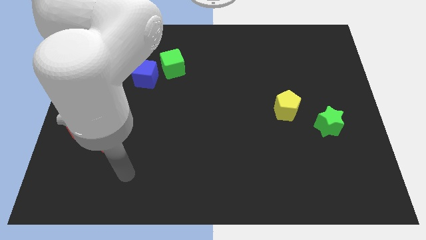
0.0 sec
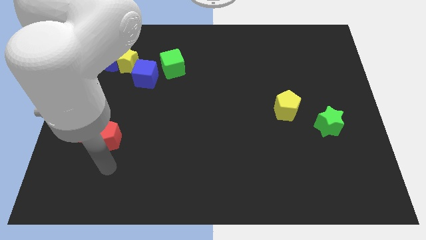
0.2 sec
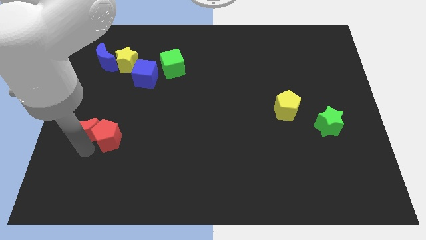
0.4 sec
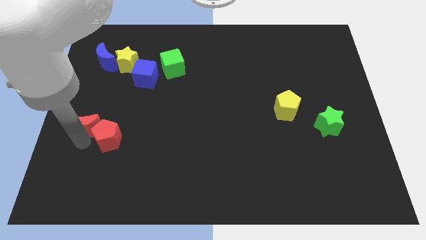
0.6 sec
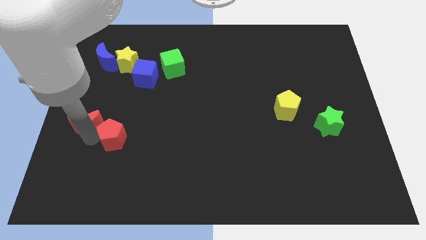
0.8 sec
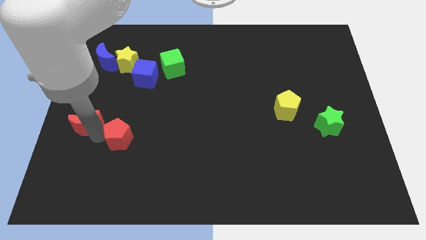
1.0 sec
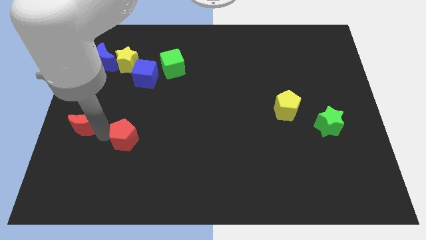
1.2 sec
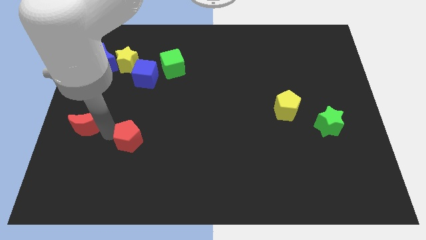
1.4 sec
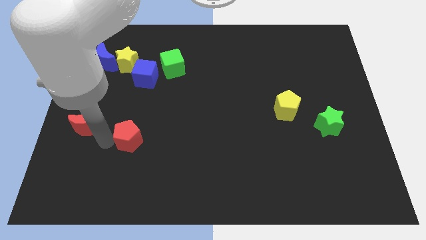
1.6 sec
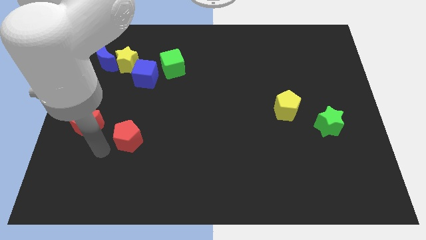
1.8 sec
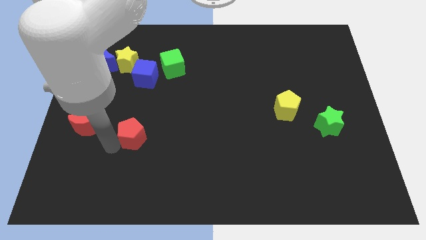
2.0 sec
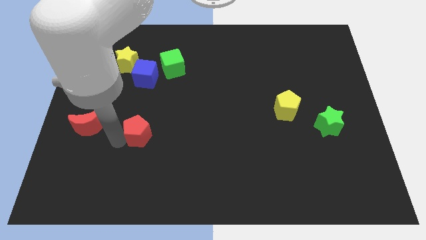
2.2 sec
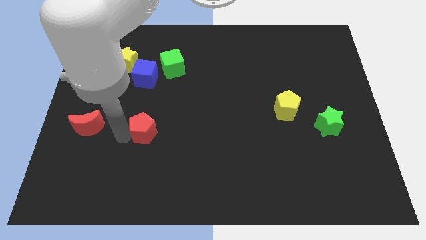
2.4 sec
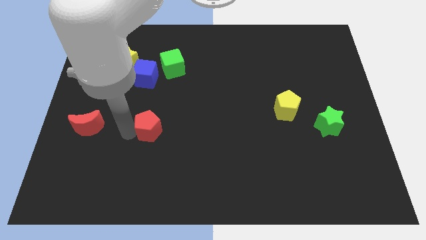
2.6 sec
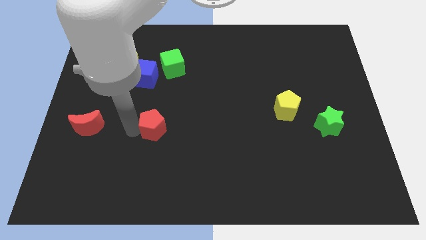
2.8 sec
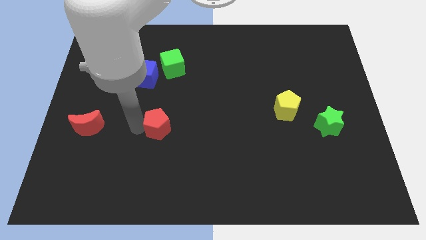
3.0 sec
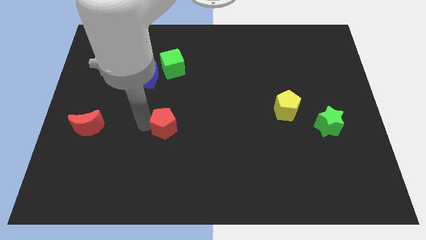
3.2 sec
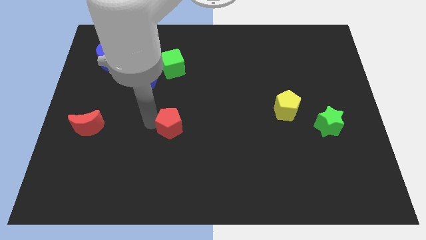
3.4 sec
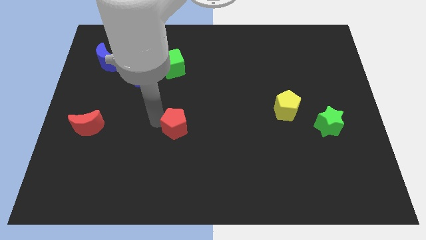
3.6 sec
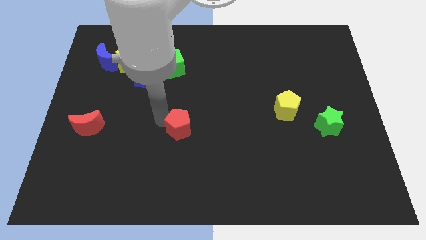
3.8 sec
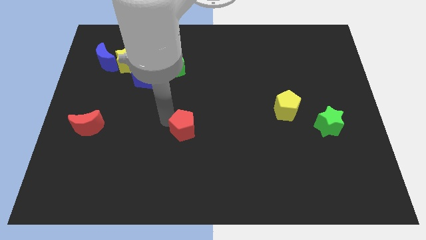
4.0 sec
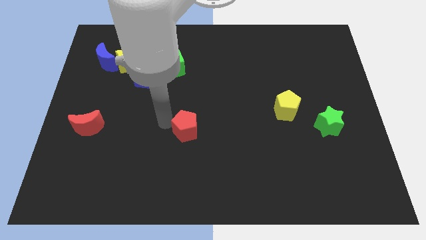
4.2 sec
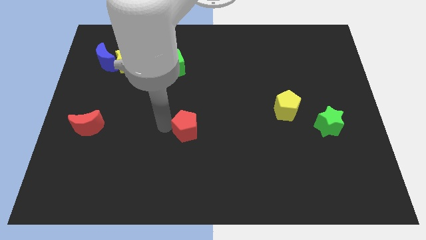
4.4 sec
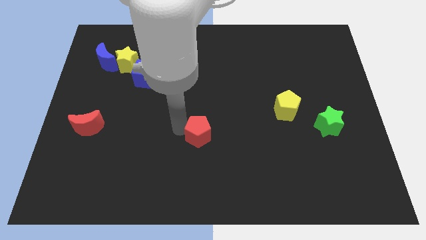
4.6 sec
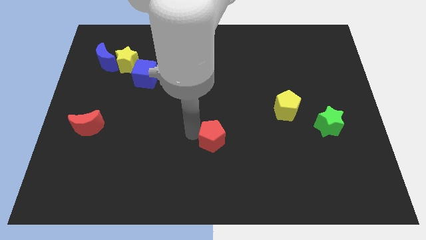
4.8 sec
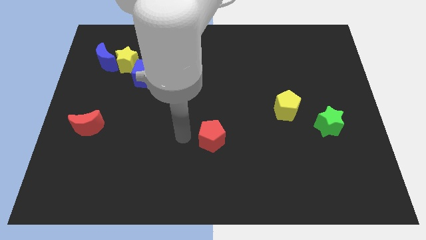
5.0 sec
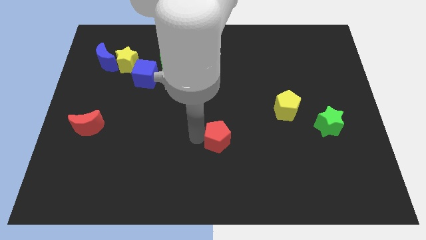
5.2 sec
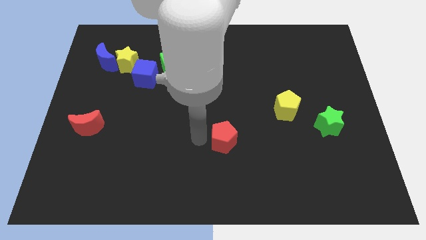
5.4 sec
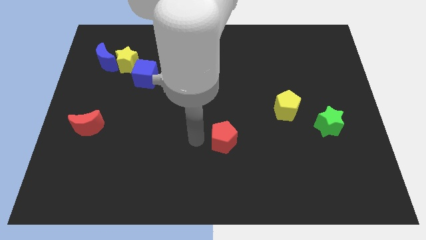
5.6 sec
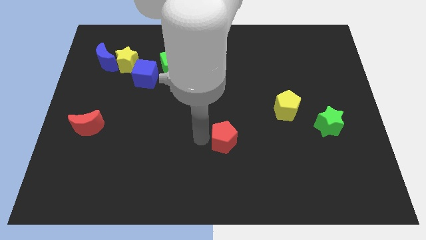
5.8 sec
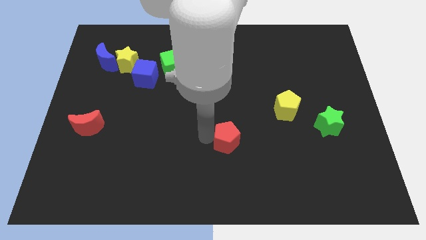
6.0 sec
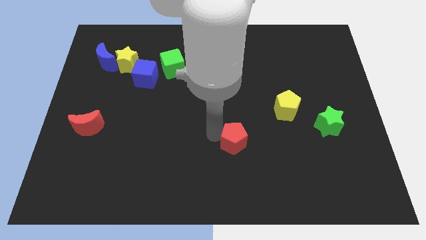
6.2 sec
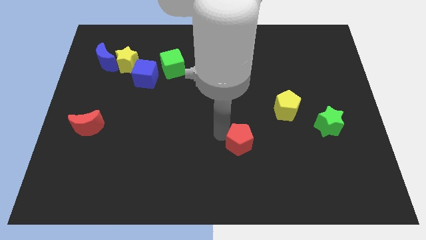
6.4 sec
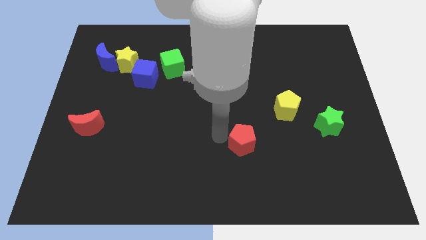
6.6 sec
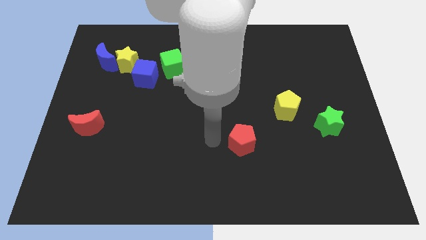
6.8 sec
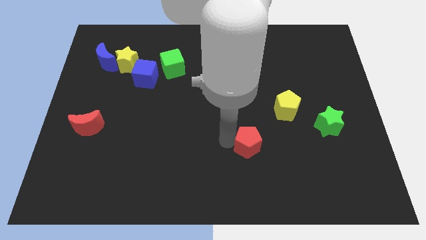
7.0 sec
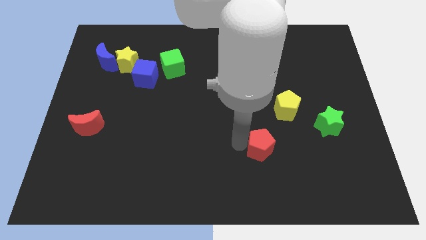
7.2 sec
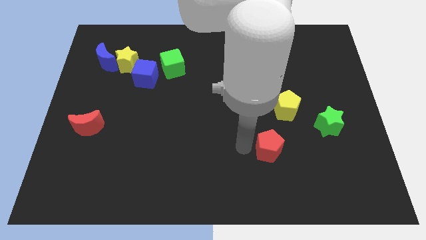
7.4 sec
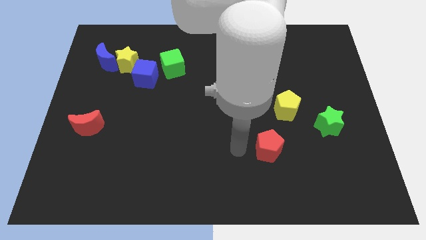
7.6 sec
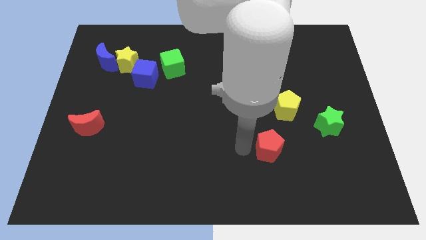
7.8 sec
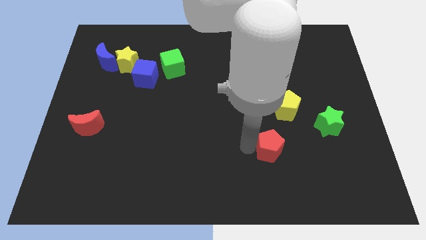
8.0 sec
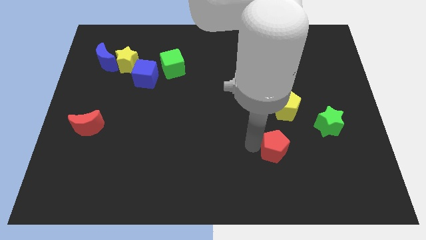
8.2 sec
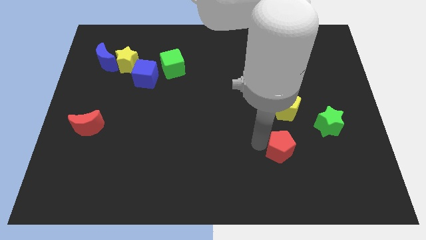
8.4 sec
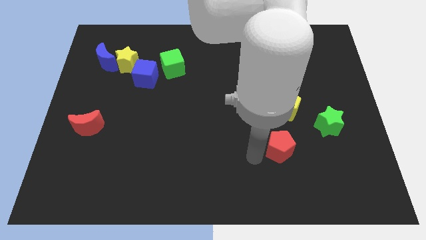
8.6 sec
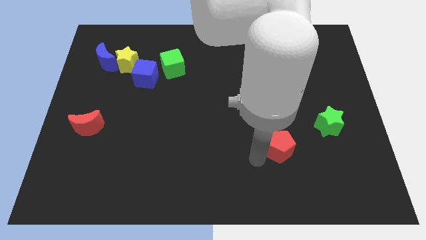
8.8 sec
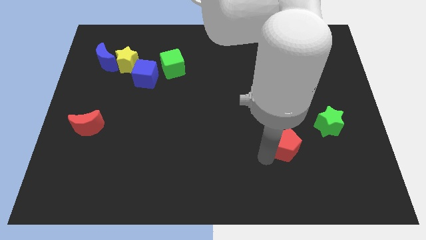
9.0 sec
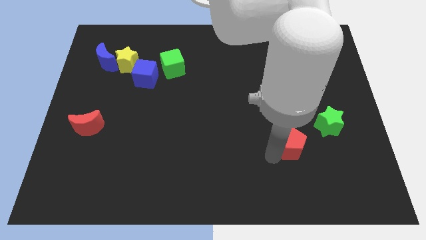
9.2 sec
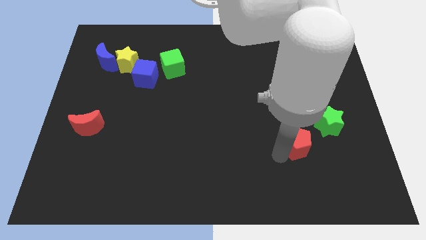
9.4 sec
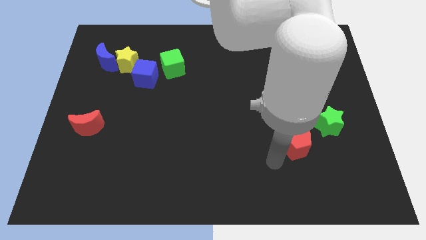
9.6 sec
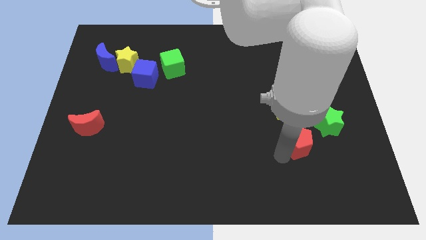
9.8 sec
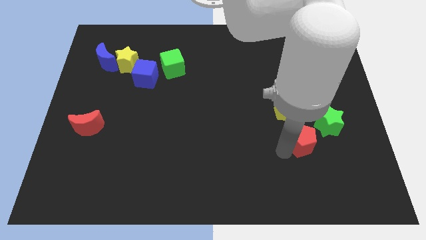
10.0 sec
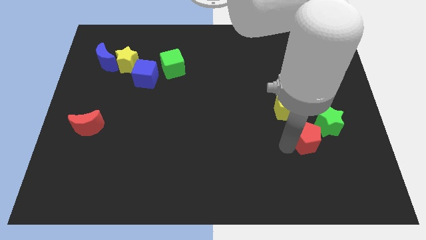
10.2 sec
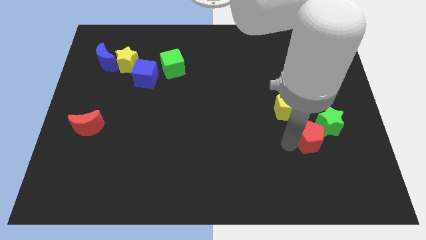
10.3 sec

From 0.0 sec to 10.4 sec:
push the red pentagon to the green star

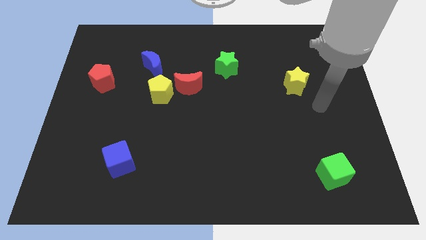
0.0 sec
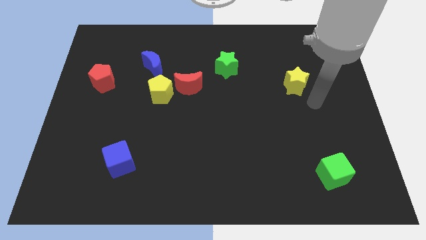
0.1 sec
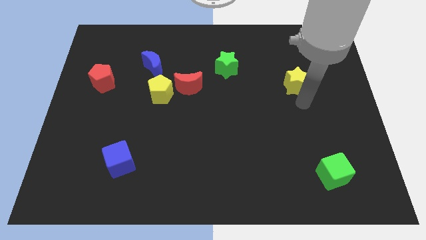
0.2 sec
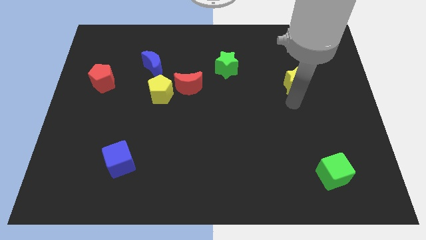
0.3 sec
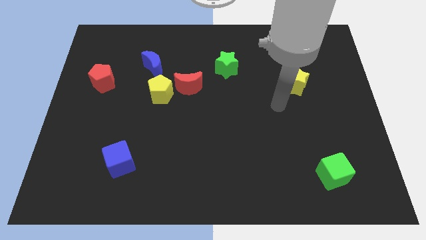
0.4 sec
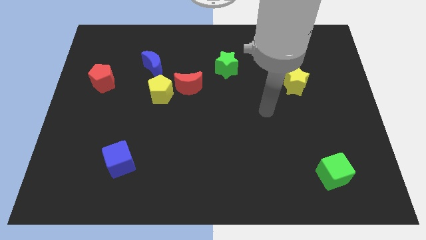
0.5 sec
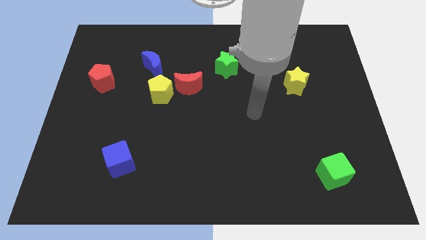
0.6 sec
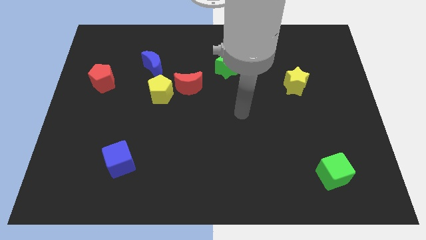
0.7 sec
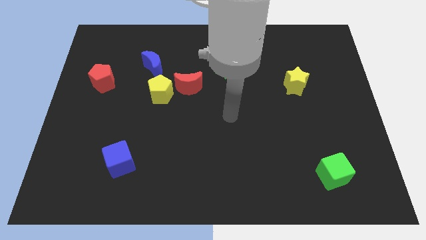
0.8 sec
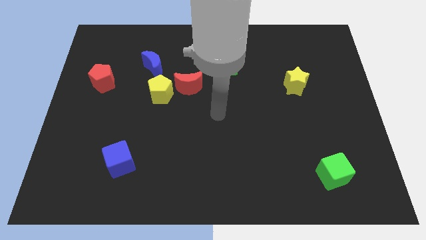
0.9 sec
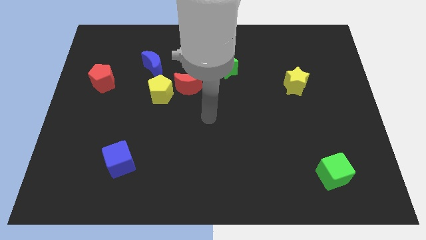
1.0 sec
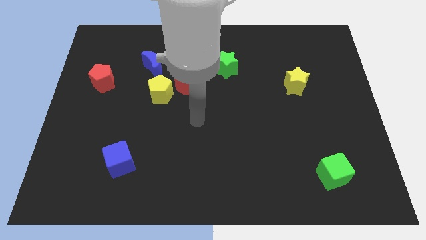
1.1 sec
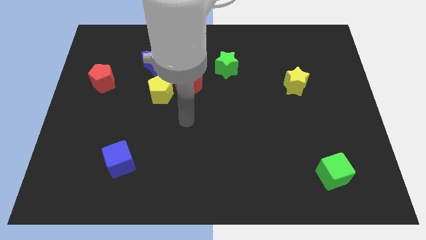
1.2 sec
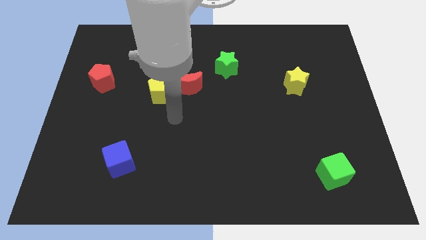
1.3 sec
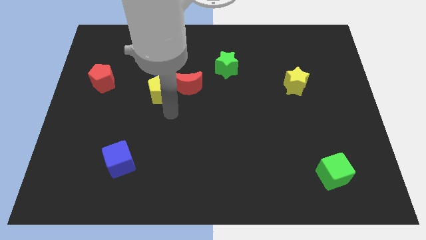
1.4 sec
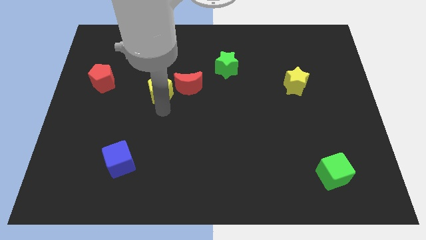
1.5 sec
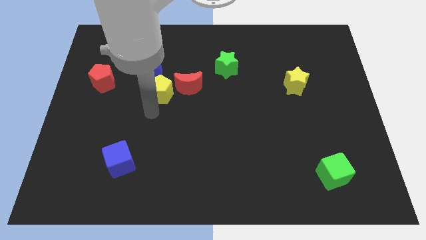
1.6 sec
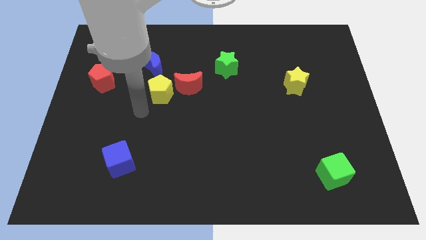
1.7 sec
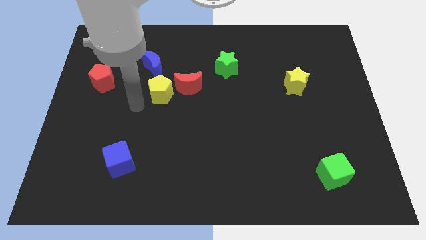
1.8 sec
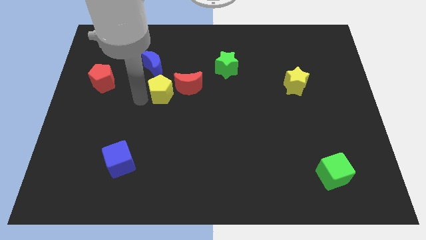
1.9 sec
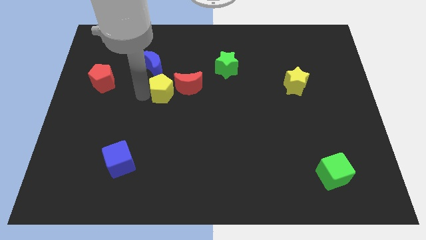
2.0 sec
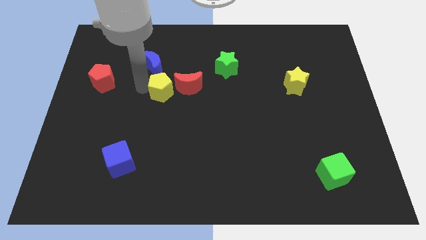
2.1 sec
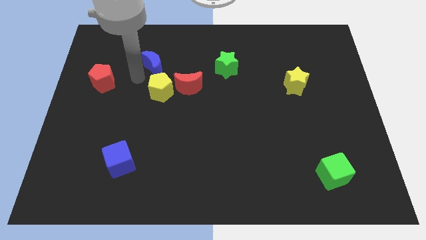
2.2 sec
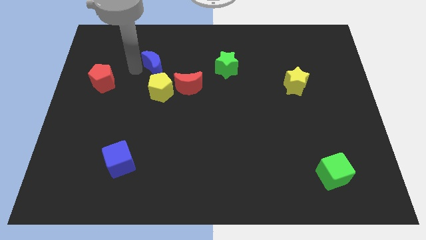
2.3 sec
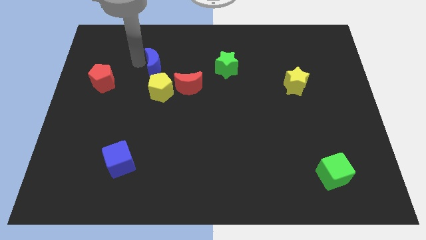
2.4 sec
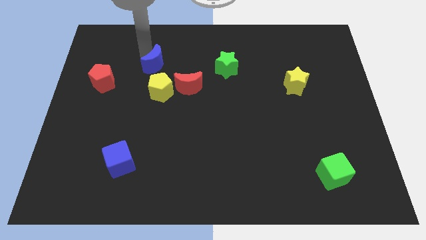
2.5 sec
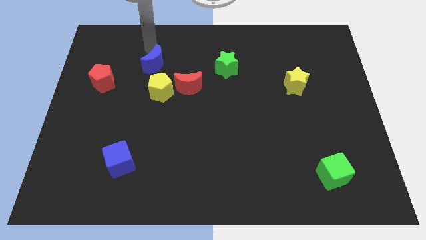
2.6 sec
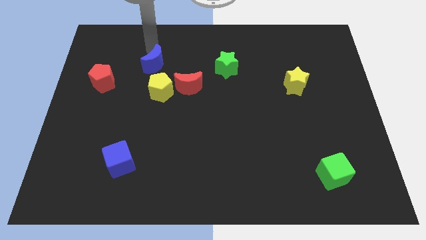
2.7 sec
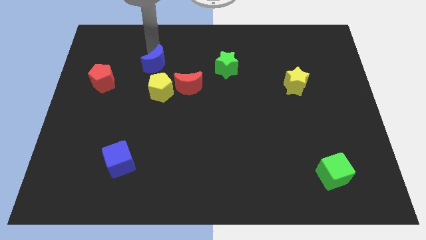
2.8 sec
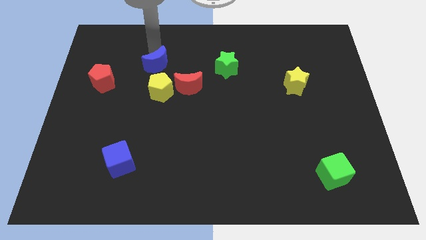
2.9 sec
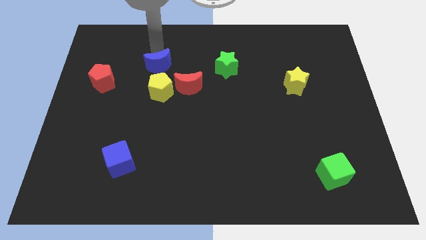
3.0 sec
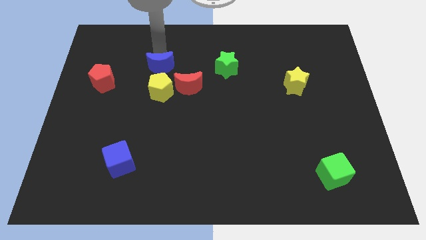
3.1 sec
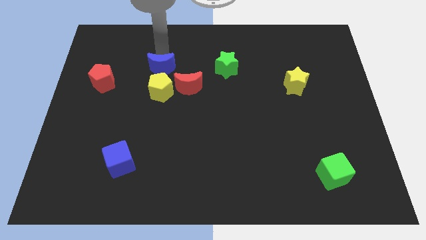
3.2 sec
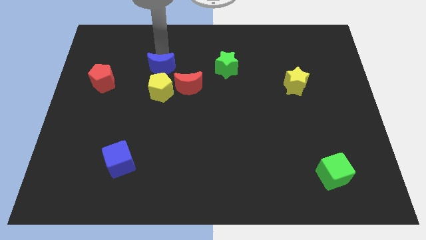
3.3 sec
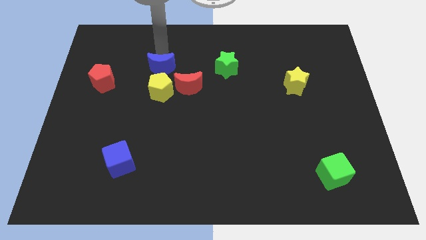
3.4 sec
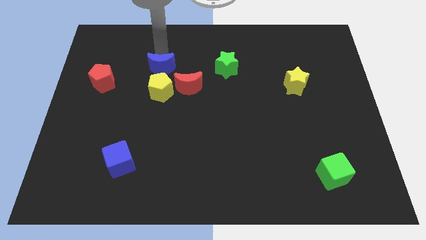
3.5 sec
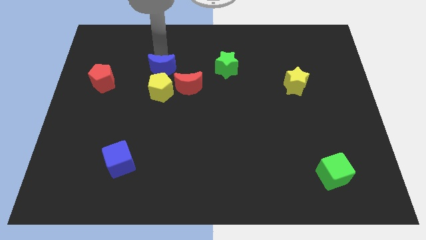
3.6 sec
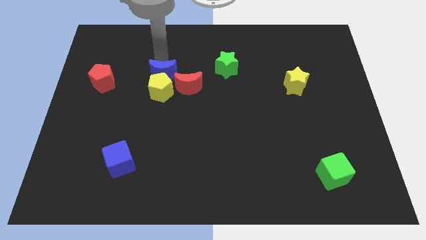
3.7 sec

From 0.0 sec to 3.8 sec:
put the blue moon close to the yellow pentagon
